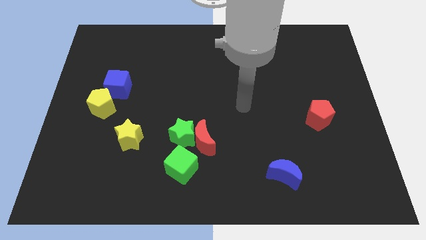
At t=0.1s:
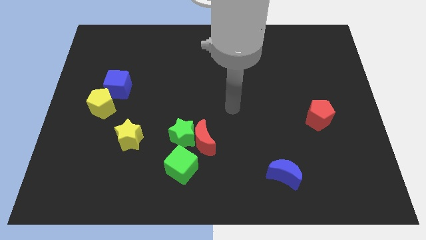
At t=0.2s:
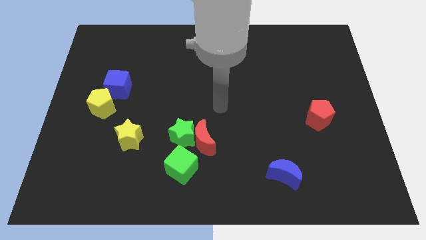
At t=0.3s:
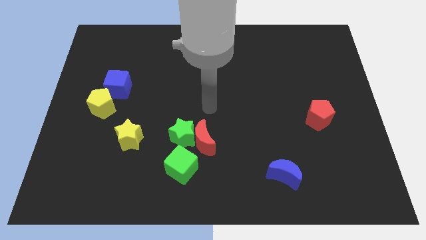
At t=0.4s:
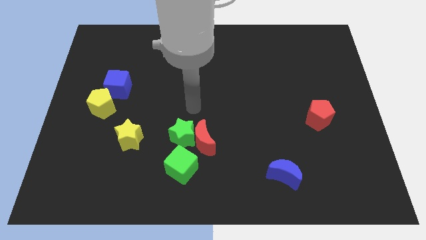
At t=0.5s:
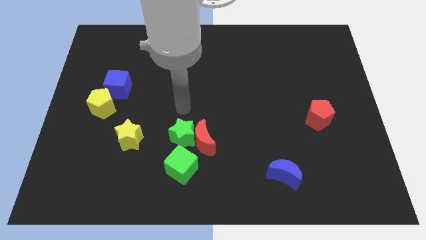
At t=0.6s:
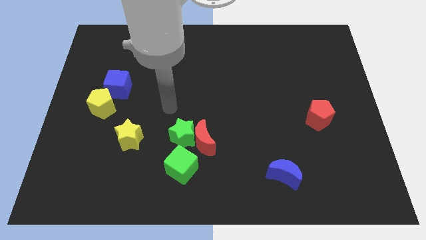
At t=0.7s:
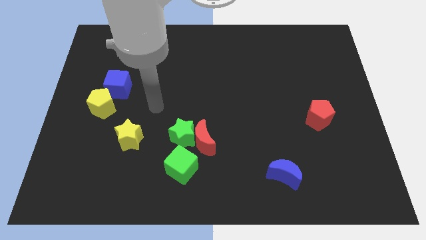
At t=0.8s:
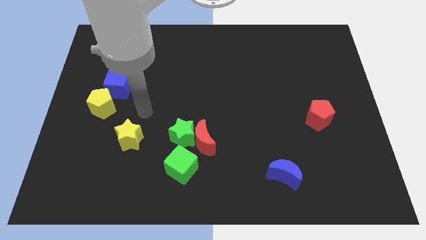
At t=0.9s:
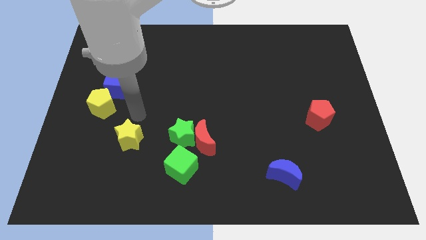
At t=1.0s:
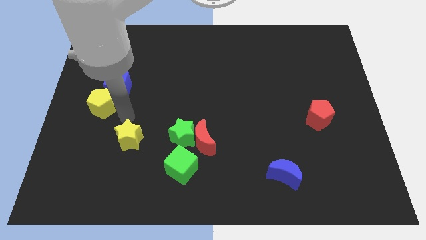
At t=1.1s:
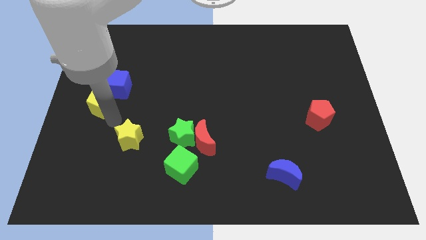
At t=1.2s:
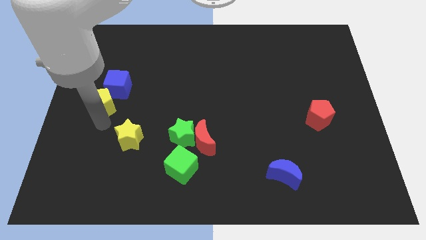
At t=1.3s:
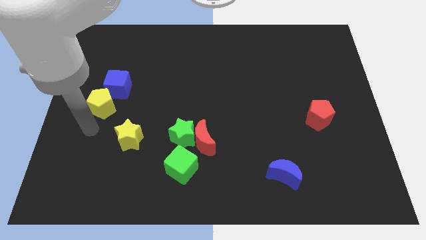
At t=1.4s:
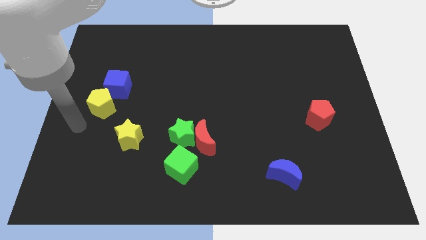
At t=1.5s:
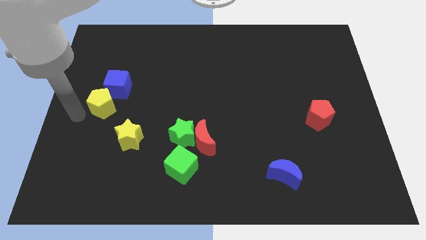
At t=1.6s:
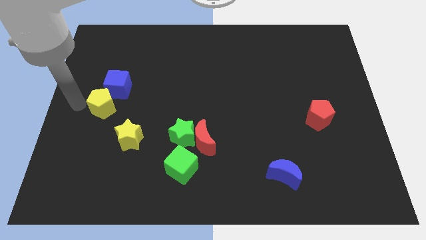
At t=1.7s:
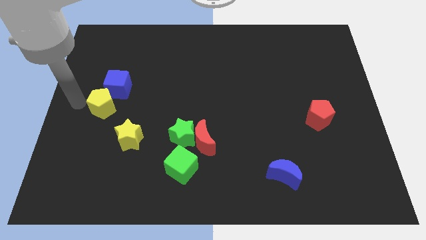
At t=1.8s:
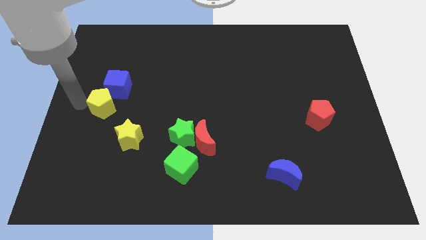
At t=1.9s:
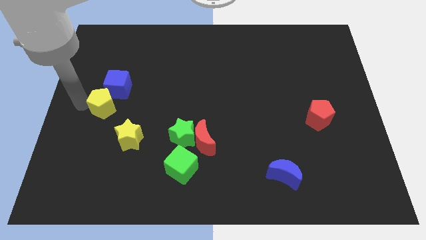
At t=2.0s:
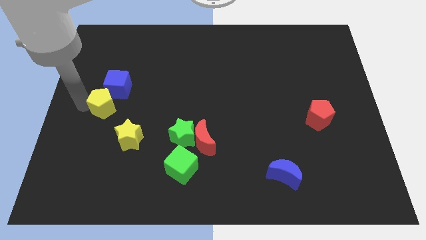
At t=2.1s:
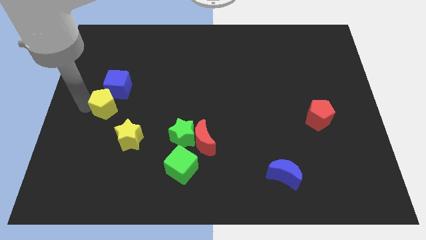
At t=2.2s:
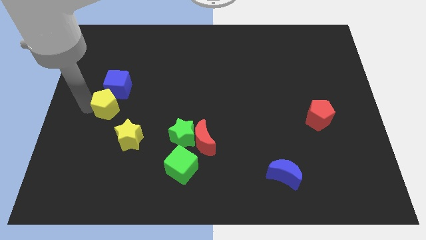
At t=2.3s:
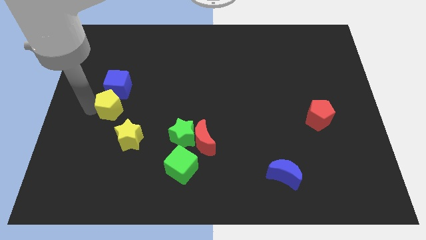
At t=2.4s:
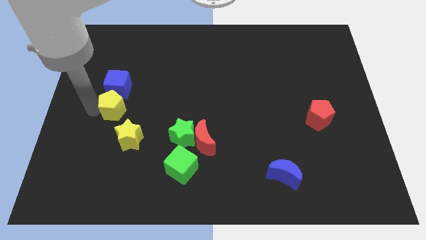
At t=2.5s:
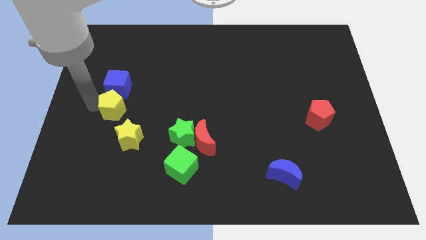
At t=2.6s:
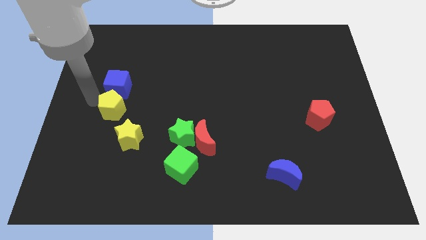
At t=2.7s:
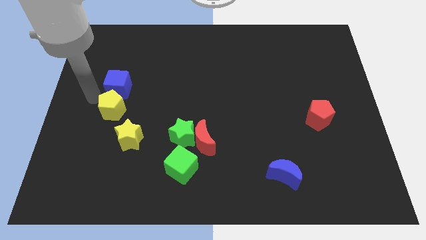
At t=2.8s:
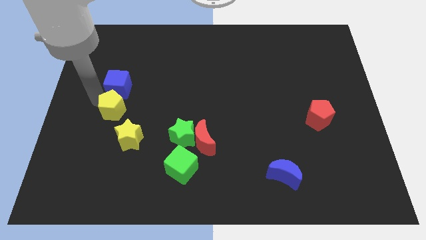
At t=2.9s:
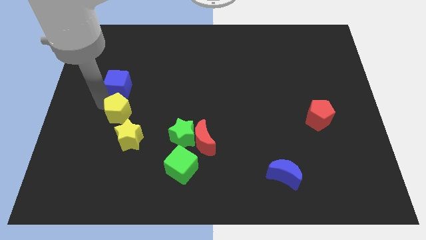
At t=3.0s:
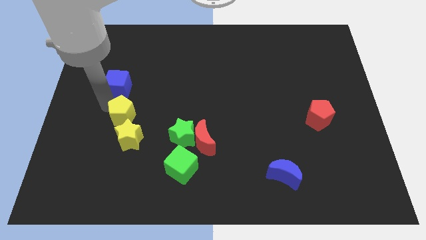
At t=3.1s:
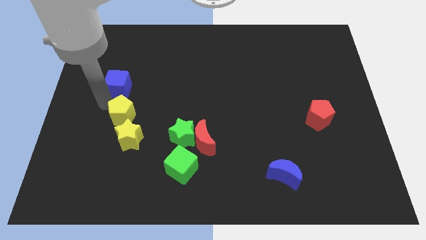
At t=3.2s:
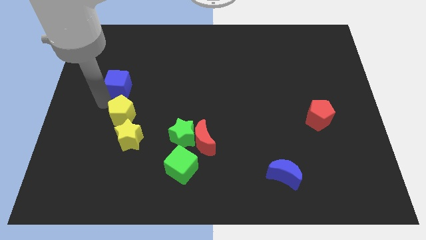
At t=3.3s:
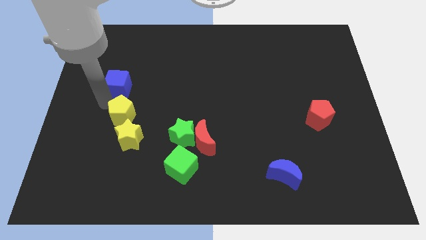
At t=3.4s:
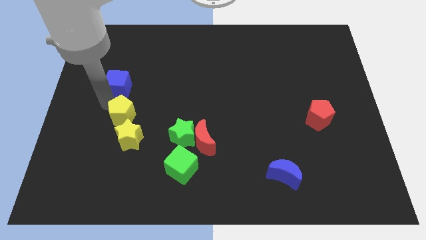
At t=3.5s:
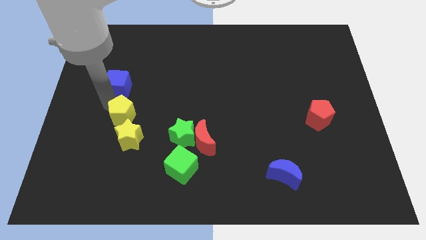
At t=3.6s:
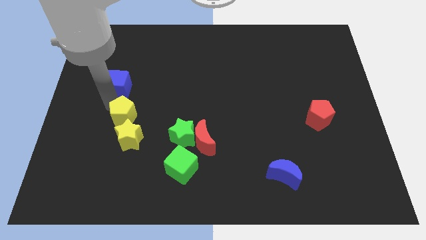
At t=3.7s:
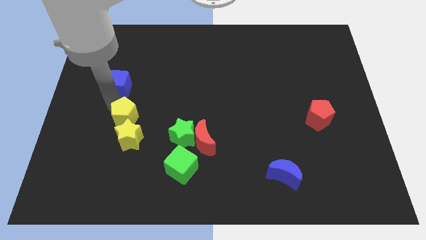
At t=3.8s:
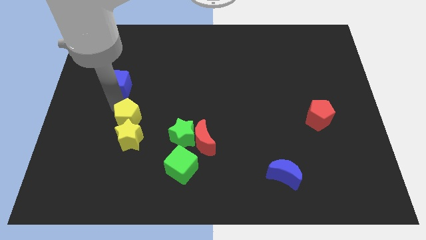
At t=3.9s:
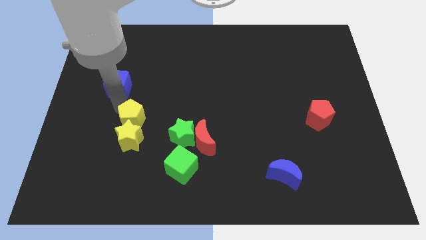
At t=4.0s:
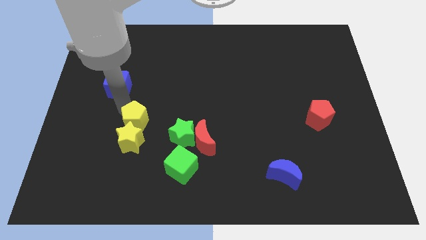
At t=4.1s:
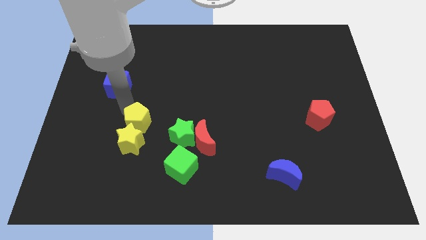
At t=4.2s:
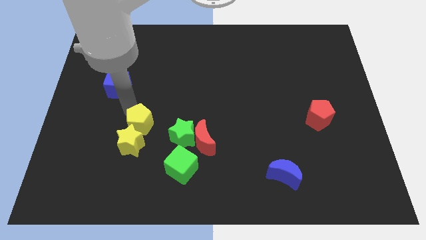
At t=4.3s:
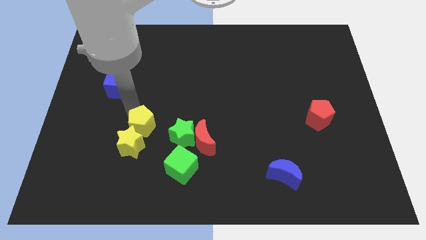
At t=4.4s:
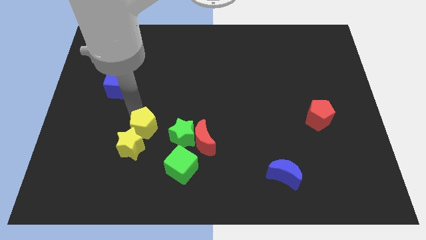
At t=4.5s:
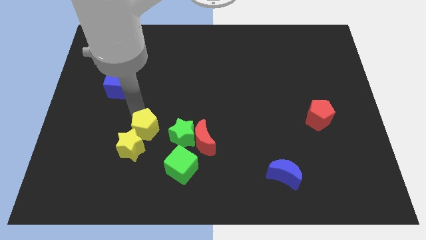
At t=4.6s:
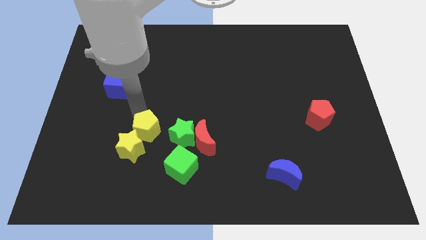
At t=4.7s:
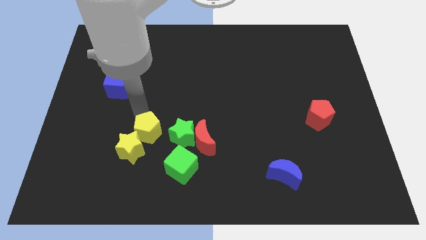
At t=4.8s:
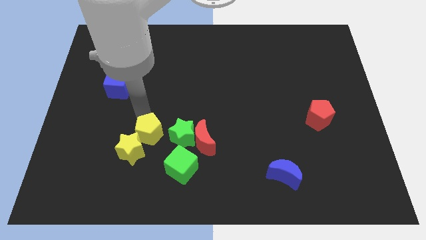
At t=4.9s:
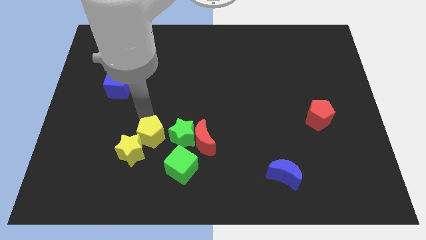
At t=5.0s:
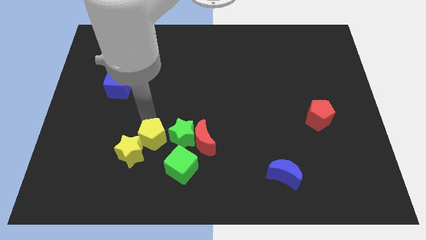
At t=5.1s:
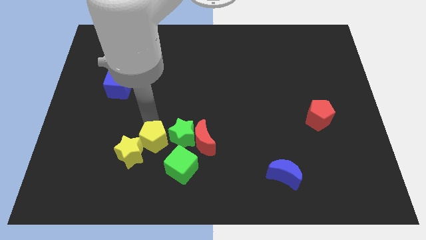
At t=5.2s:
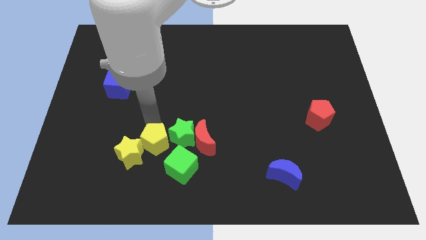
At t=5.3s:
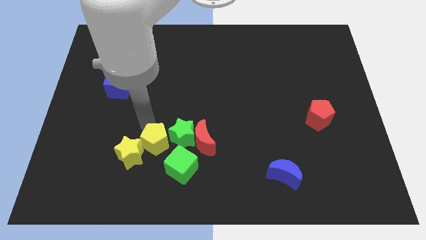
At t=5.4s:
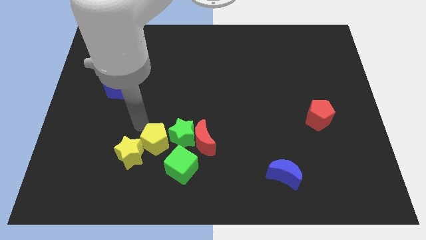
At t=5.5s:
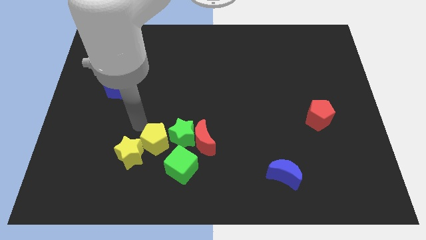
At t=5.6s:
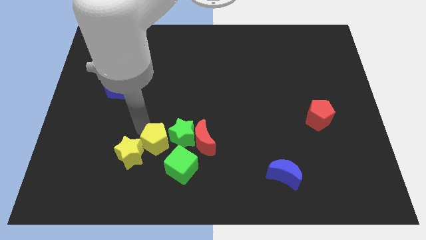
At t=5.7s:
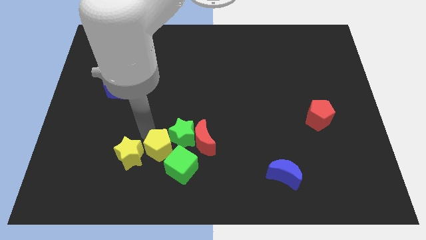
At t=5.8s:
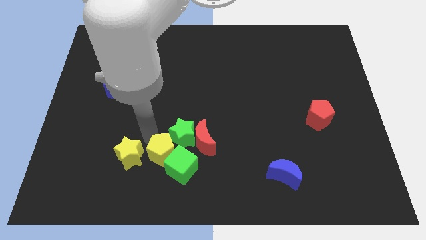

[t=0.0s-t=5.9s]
slide the yellow pentagon to the green cube

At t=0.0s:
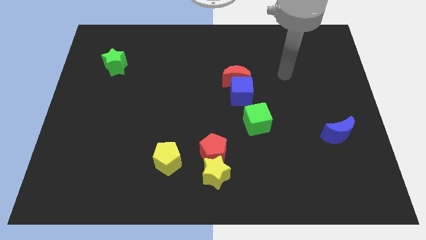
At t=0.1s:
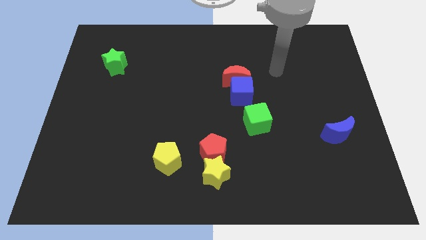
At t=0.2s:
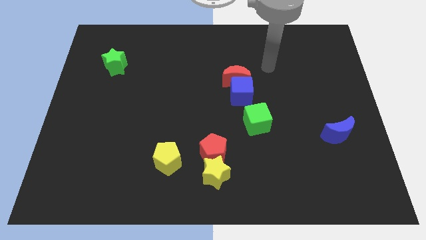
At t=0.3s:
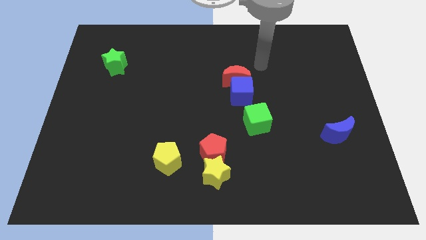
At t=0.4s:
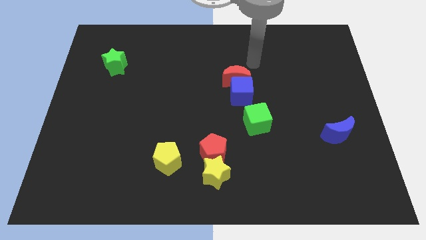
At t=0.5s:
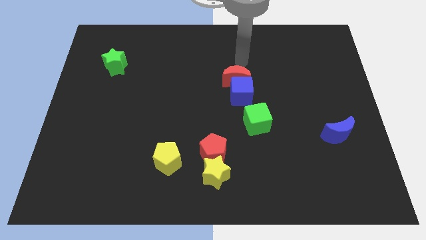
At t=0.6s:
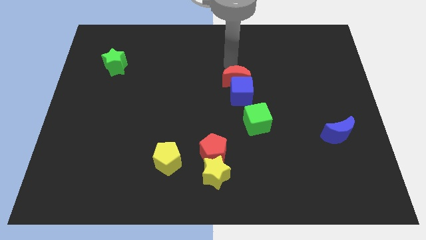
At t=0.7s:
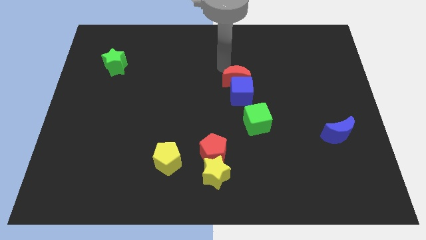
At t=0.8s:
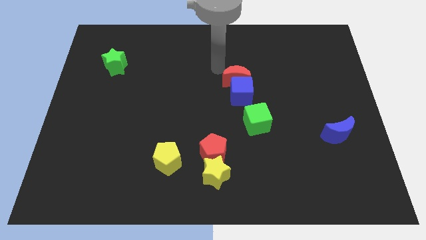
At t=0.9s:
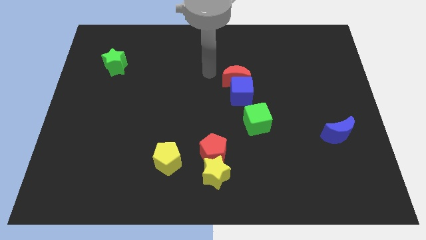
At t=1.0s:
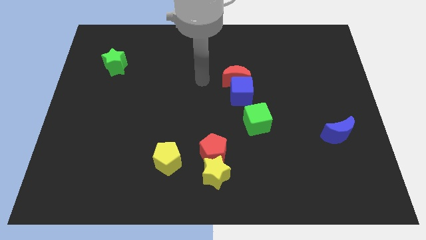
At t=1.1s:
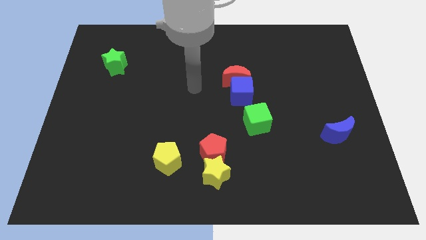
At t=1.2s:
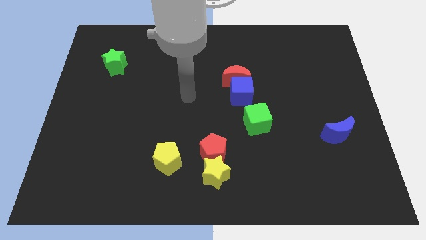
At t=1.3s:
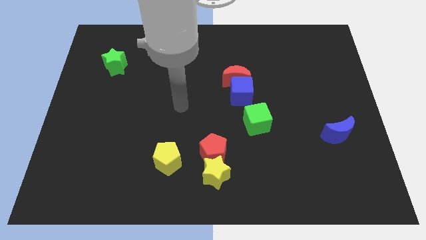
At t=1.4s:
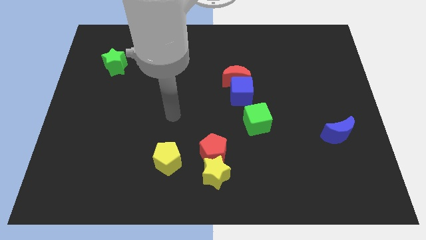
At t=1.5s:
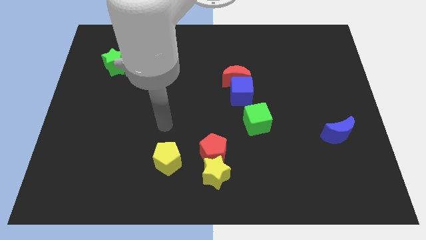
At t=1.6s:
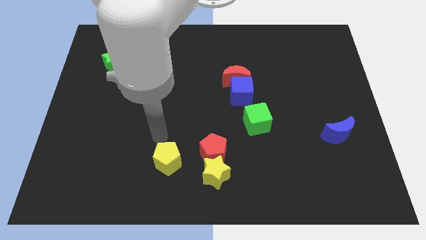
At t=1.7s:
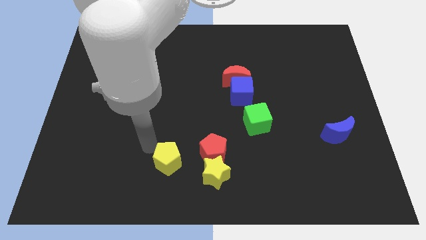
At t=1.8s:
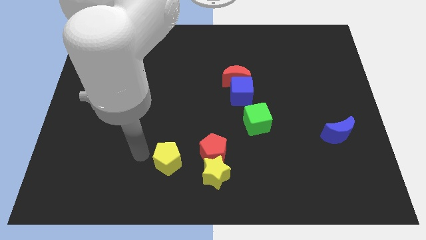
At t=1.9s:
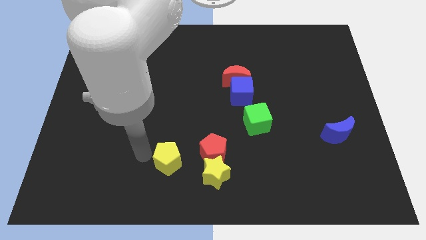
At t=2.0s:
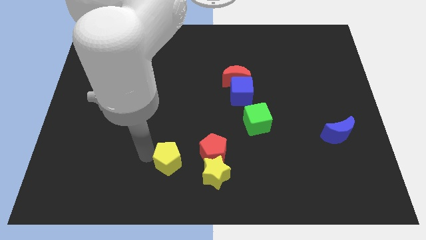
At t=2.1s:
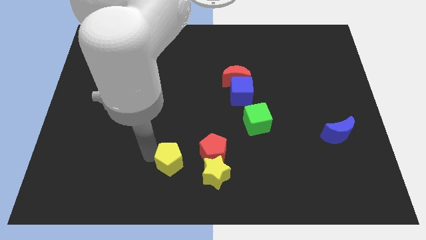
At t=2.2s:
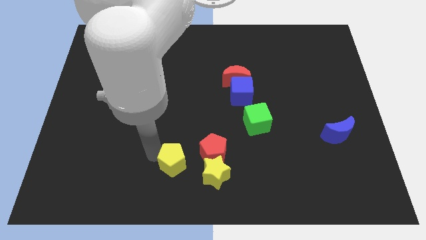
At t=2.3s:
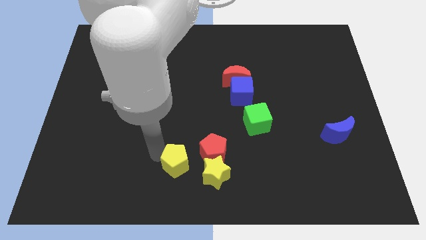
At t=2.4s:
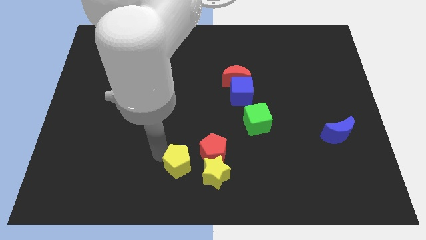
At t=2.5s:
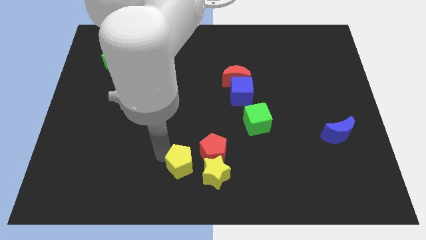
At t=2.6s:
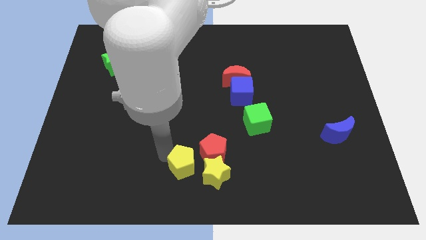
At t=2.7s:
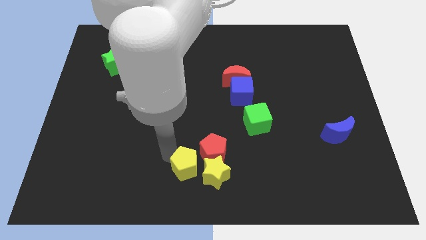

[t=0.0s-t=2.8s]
push the yellow pentagon close to the yellow star
